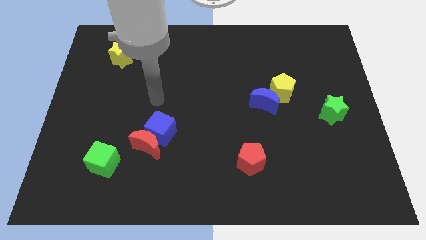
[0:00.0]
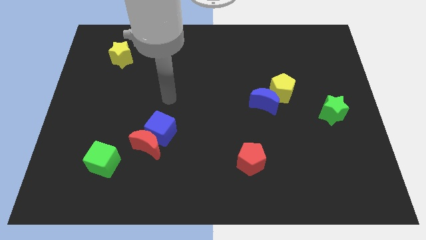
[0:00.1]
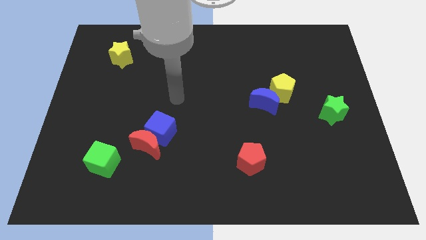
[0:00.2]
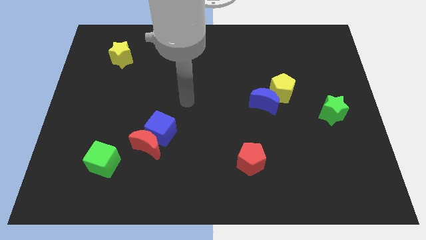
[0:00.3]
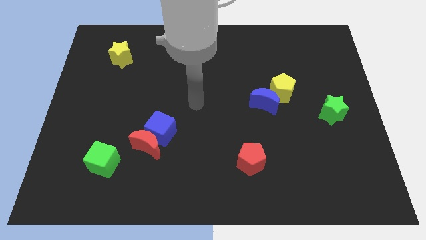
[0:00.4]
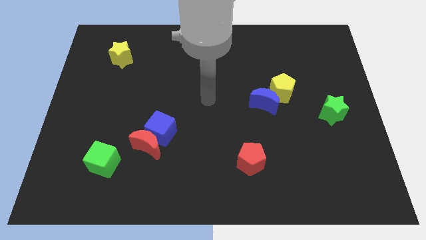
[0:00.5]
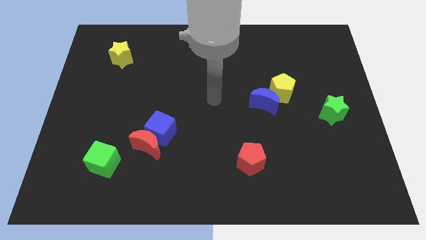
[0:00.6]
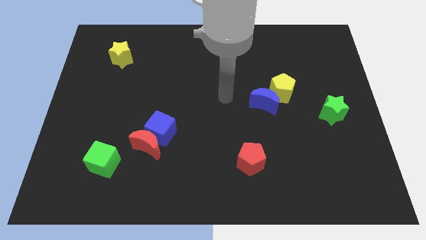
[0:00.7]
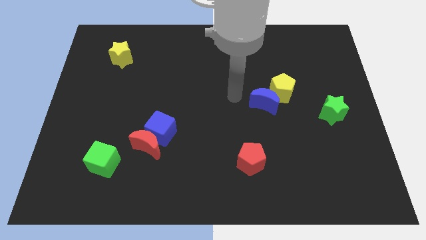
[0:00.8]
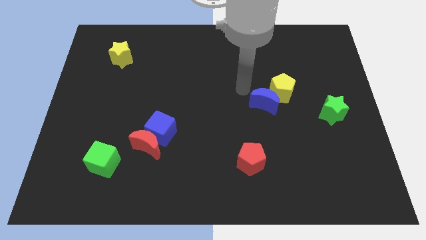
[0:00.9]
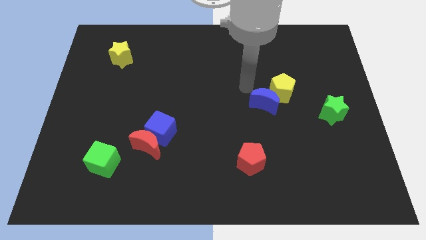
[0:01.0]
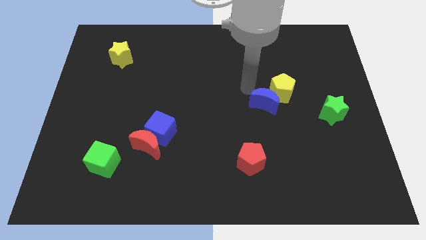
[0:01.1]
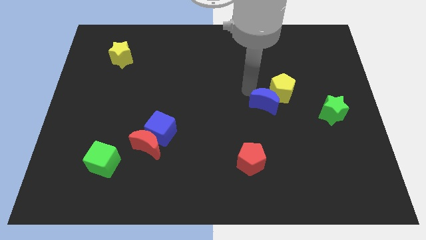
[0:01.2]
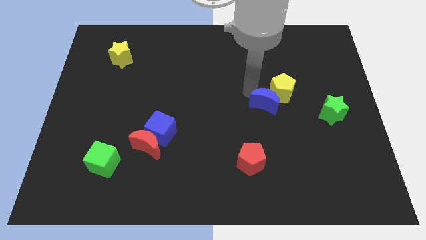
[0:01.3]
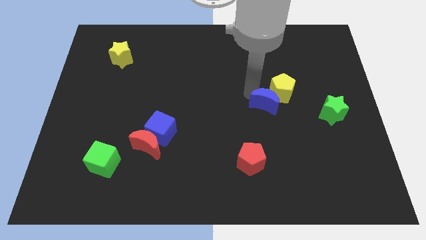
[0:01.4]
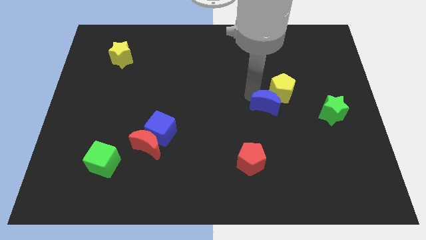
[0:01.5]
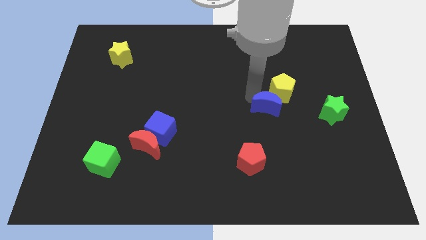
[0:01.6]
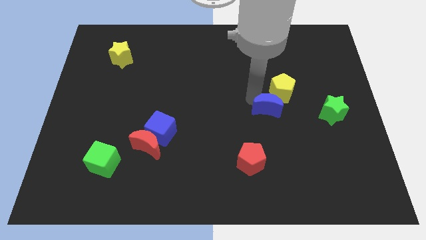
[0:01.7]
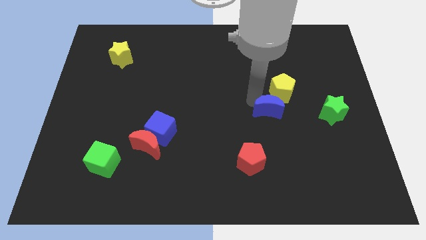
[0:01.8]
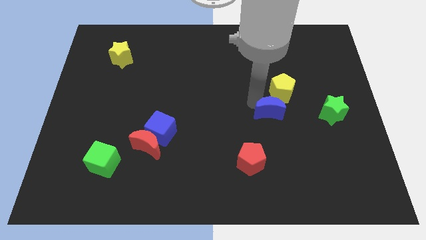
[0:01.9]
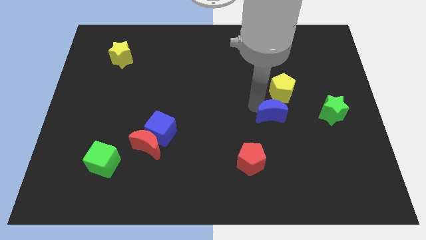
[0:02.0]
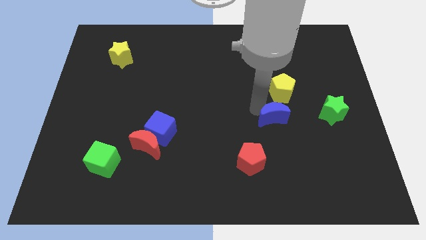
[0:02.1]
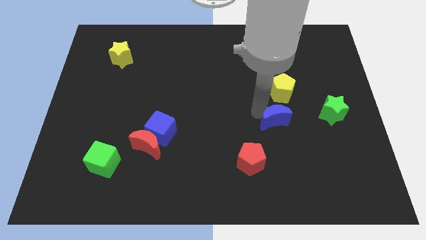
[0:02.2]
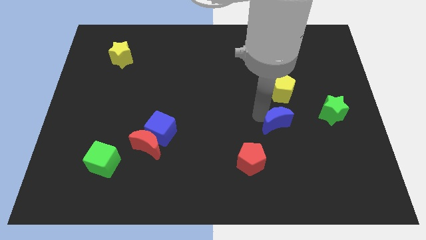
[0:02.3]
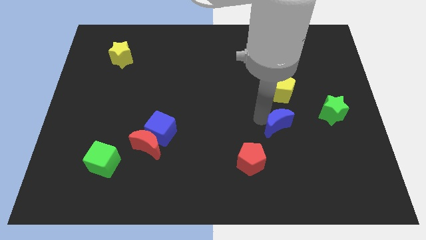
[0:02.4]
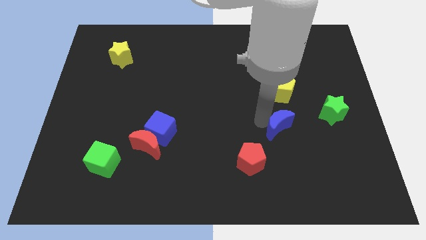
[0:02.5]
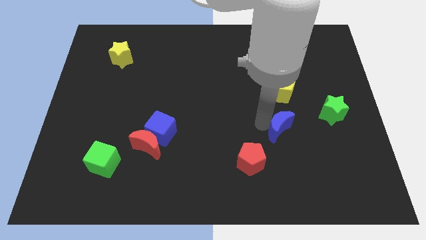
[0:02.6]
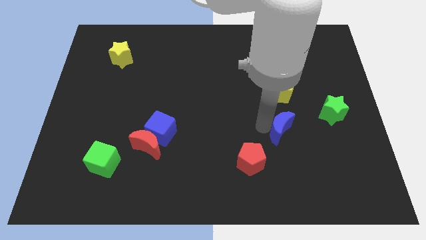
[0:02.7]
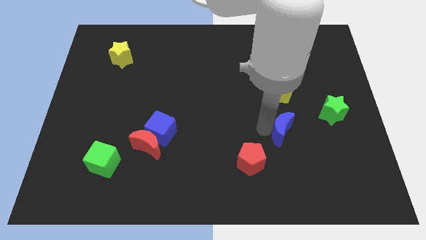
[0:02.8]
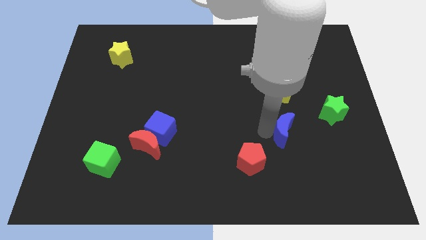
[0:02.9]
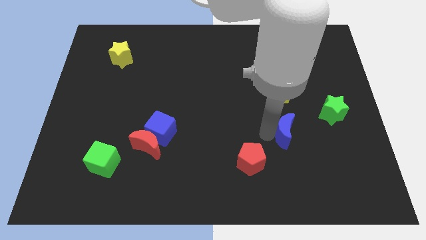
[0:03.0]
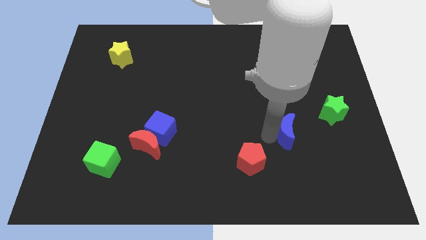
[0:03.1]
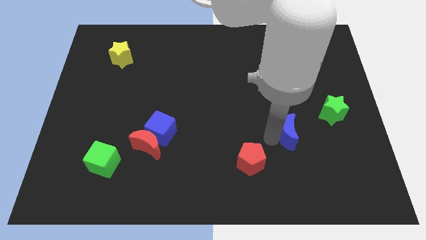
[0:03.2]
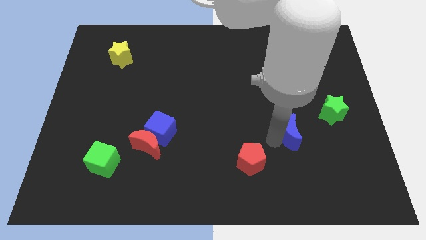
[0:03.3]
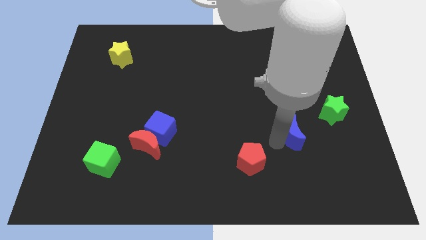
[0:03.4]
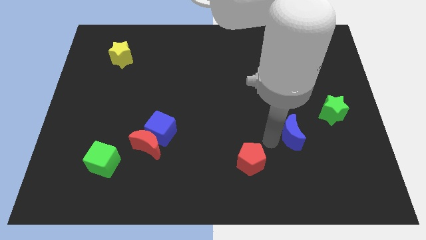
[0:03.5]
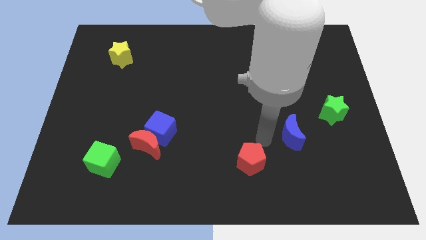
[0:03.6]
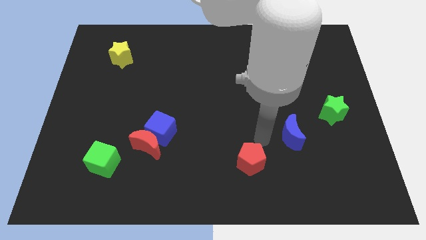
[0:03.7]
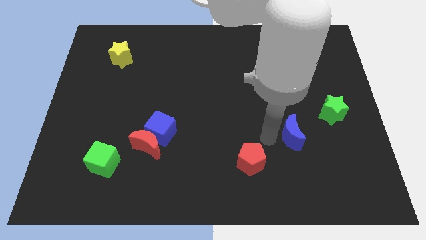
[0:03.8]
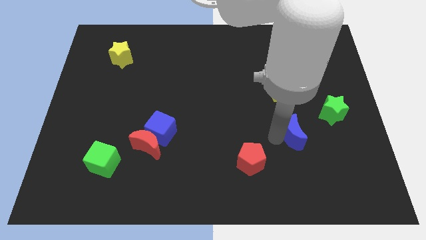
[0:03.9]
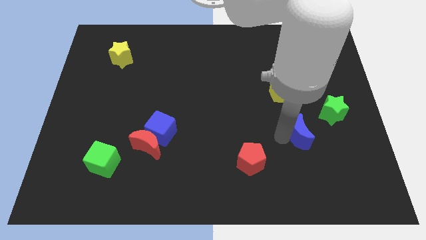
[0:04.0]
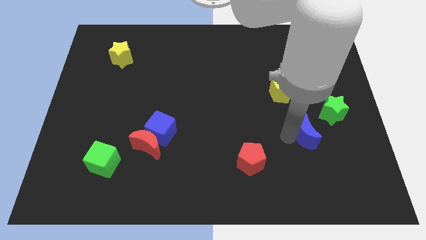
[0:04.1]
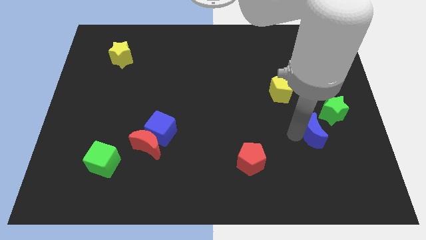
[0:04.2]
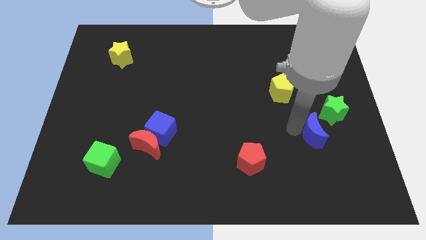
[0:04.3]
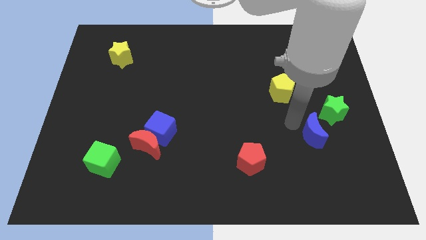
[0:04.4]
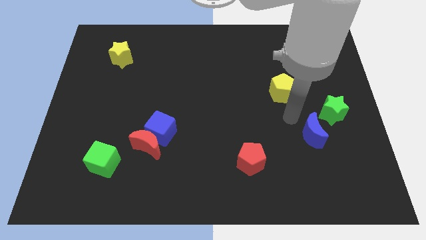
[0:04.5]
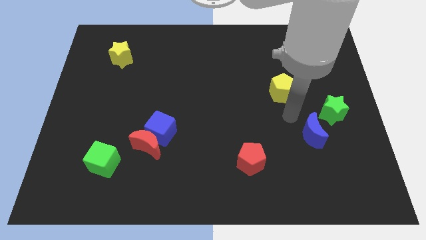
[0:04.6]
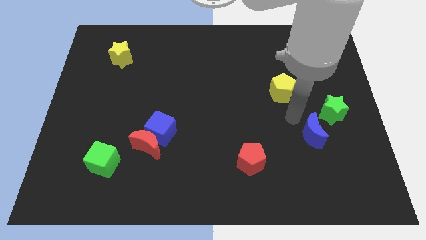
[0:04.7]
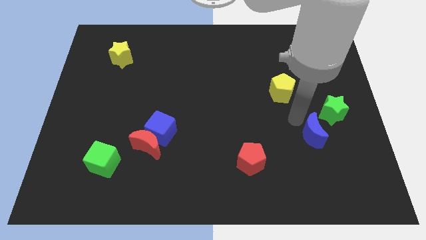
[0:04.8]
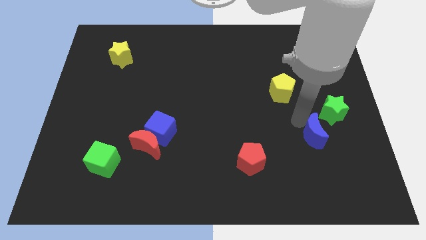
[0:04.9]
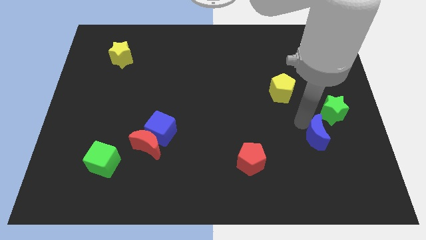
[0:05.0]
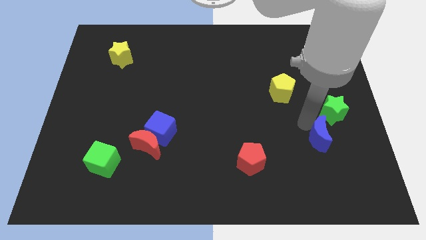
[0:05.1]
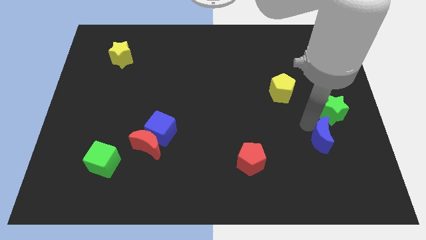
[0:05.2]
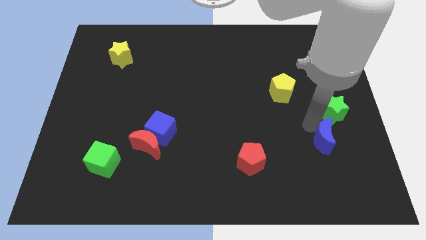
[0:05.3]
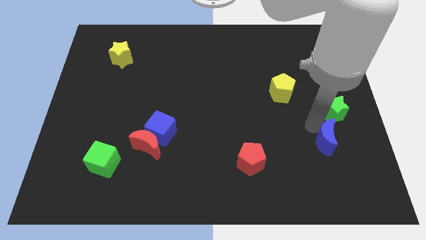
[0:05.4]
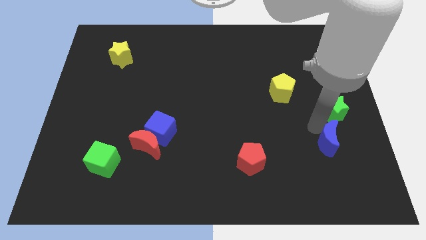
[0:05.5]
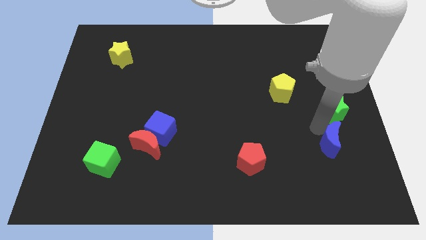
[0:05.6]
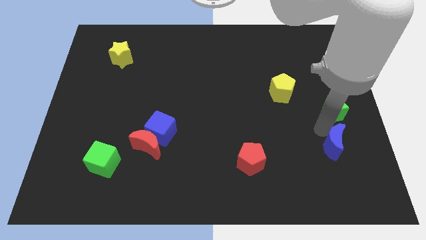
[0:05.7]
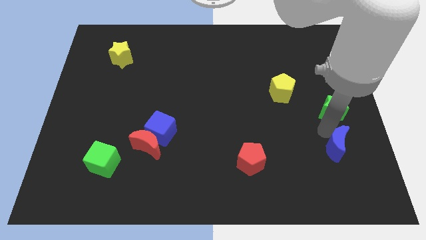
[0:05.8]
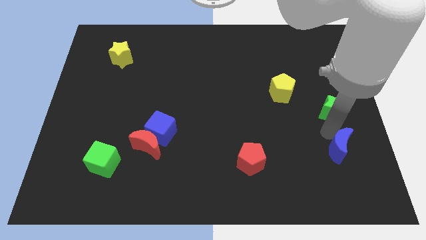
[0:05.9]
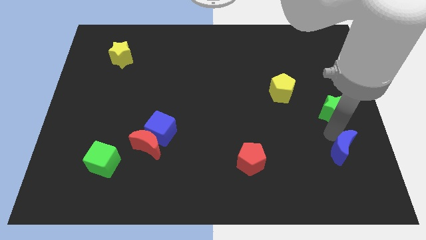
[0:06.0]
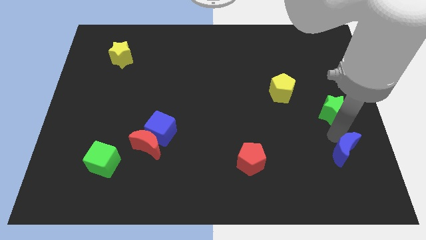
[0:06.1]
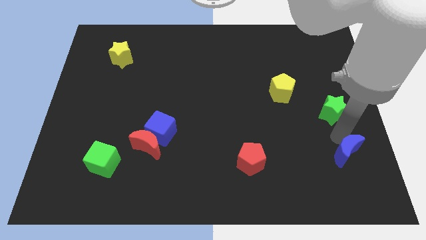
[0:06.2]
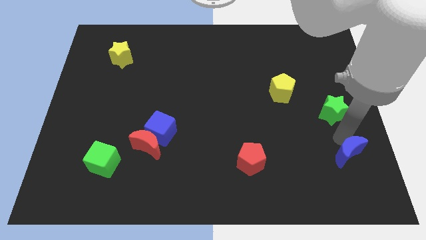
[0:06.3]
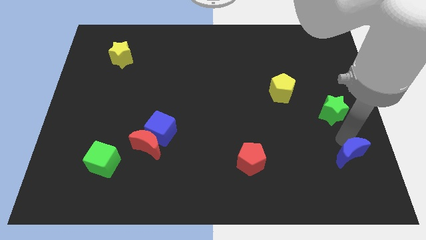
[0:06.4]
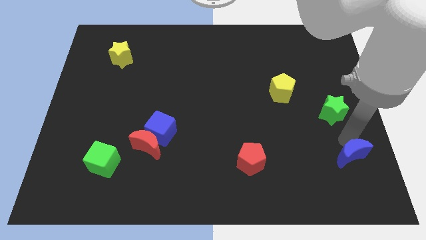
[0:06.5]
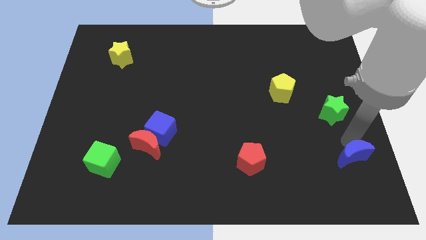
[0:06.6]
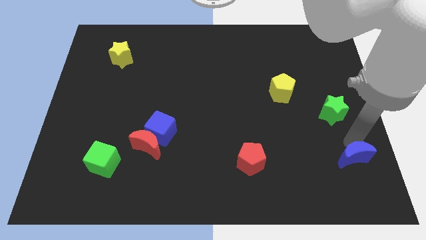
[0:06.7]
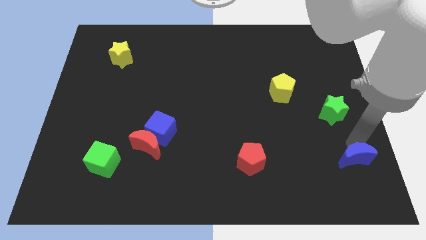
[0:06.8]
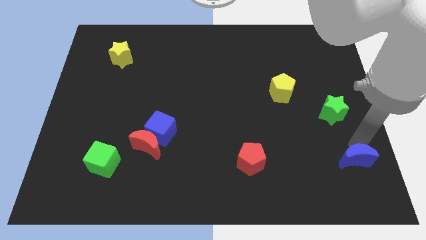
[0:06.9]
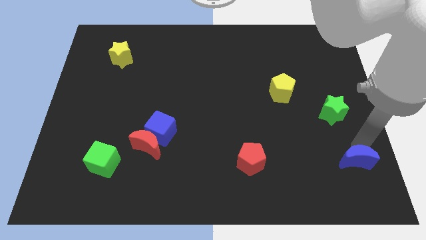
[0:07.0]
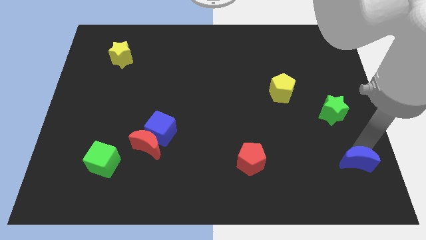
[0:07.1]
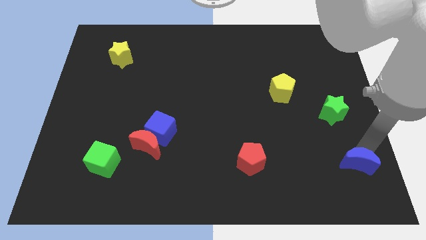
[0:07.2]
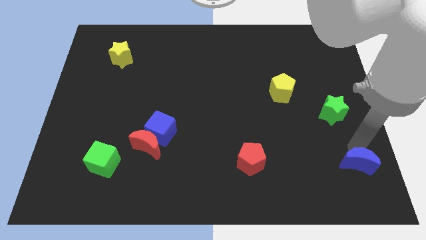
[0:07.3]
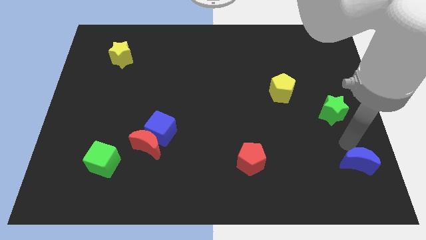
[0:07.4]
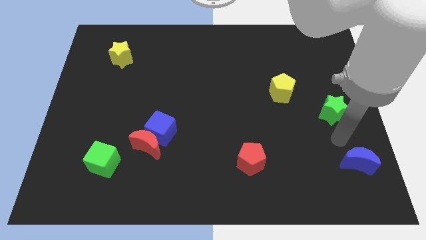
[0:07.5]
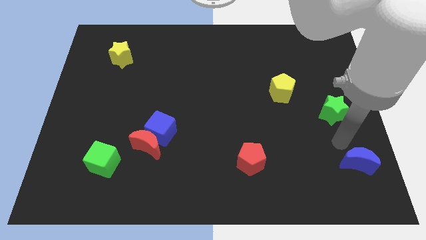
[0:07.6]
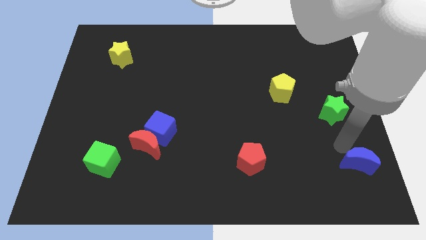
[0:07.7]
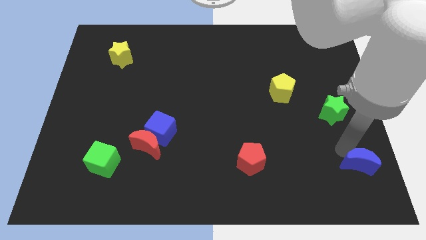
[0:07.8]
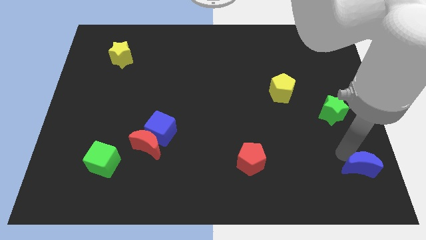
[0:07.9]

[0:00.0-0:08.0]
push the blue moon to the bottom right
